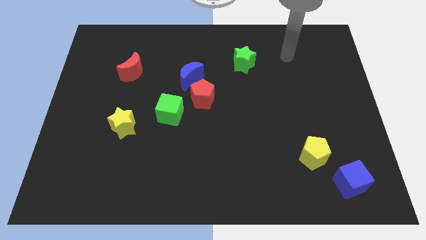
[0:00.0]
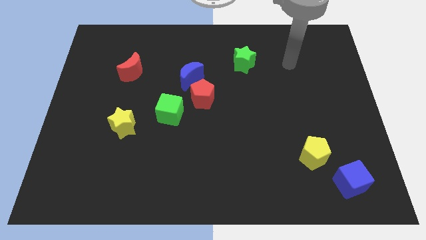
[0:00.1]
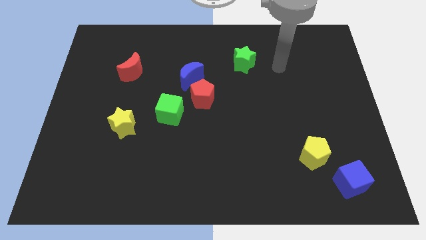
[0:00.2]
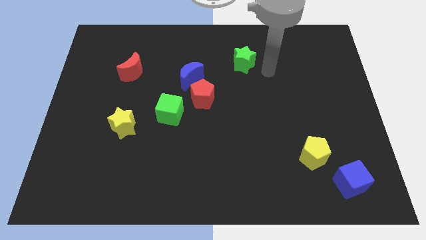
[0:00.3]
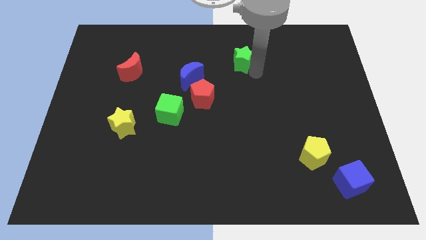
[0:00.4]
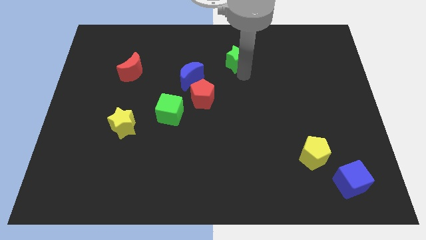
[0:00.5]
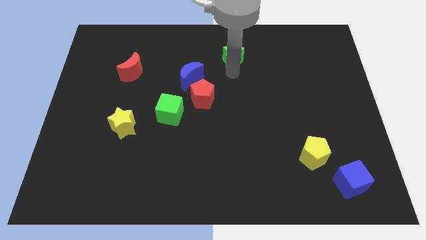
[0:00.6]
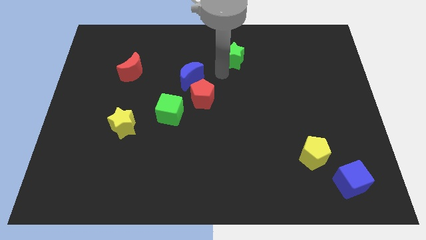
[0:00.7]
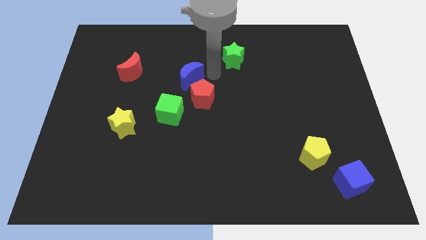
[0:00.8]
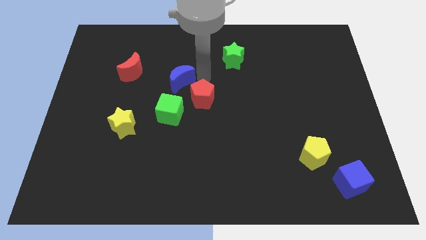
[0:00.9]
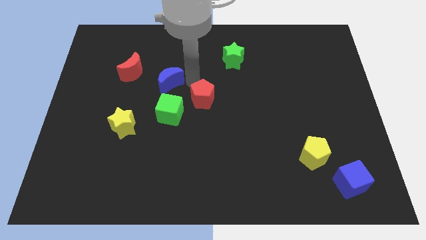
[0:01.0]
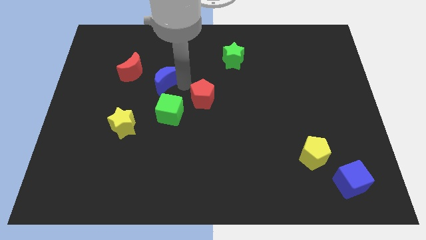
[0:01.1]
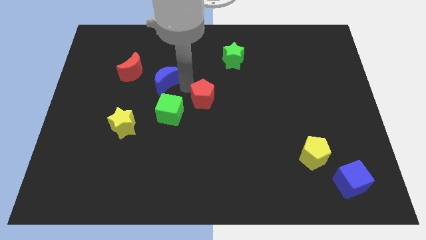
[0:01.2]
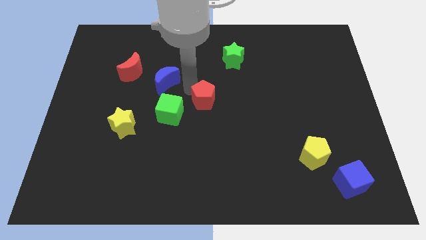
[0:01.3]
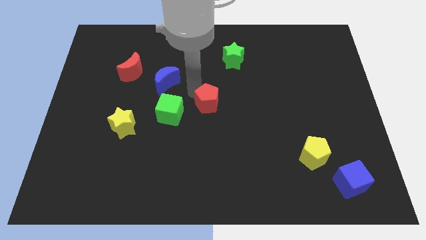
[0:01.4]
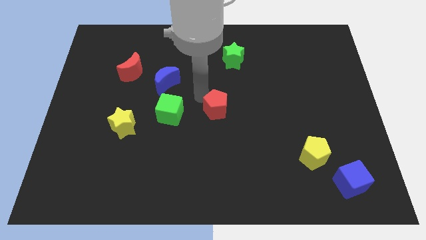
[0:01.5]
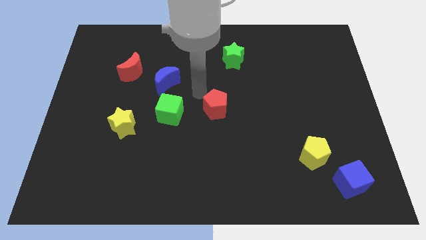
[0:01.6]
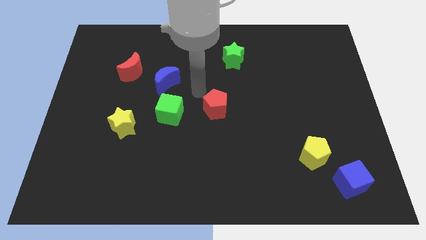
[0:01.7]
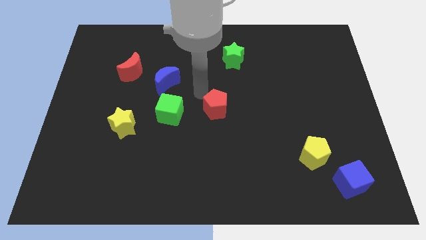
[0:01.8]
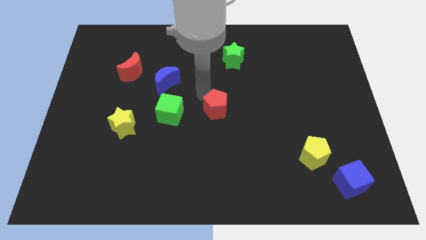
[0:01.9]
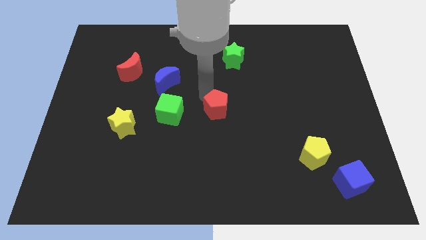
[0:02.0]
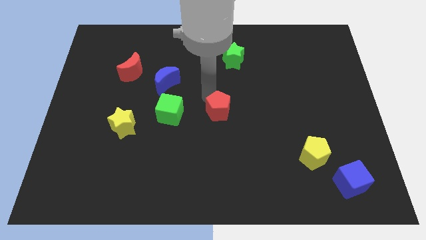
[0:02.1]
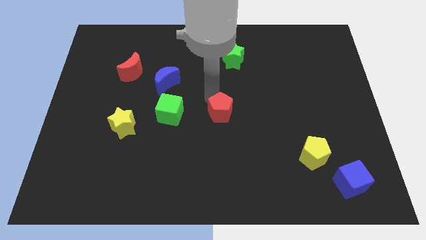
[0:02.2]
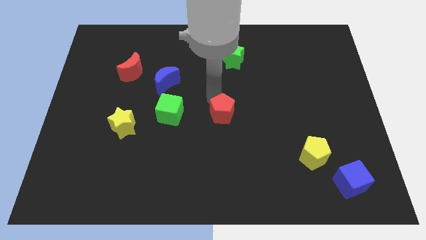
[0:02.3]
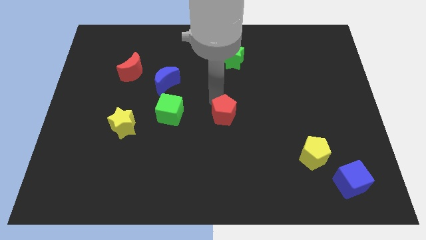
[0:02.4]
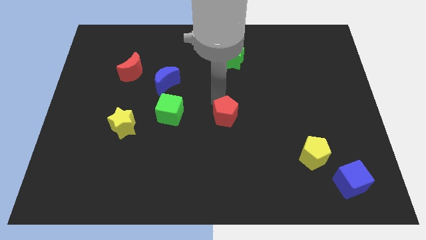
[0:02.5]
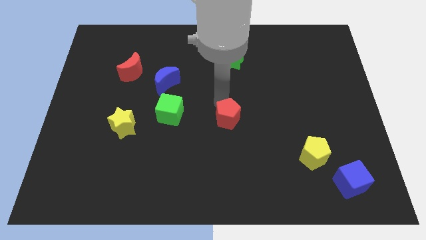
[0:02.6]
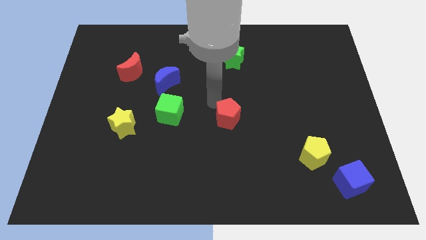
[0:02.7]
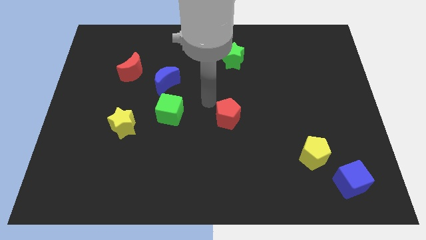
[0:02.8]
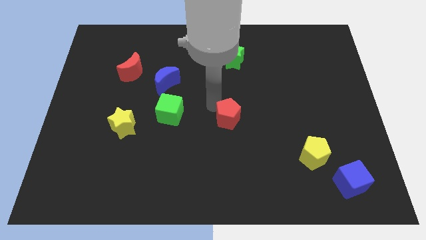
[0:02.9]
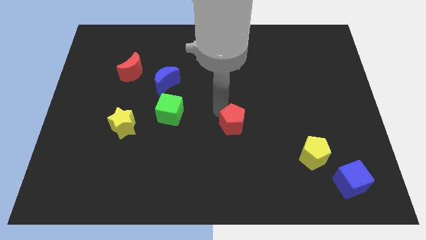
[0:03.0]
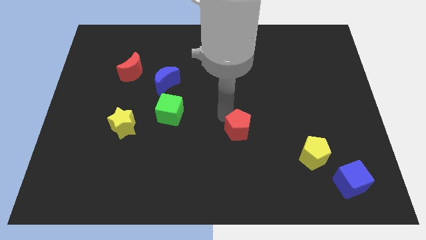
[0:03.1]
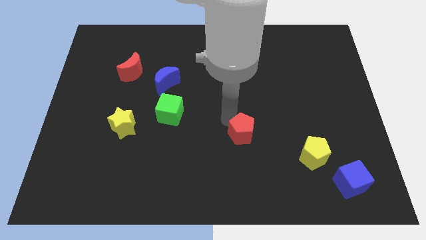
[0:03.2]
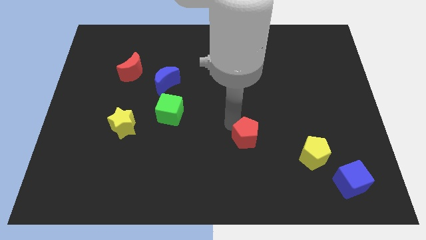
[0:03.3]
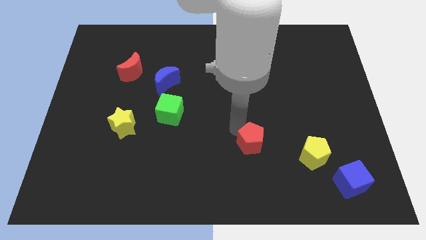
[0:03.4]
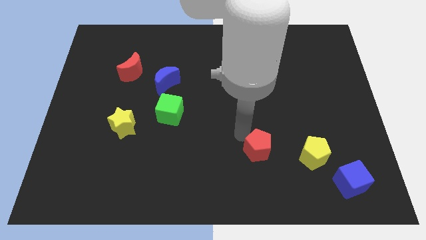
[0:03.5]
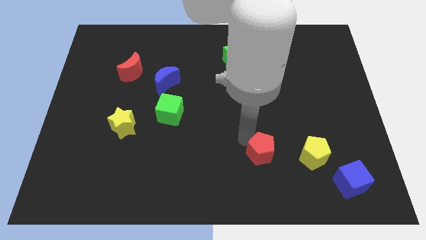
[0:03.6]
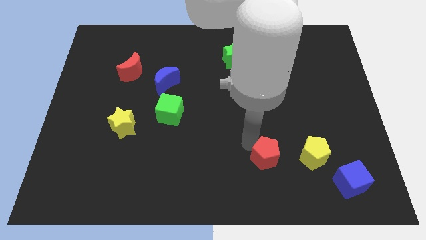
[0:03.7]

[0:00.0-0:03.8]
push the red pentagon downwards and to the right

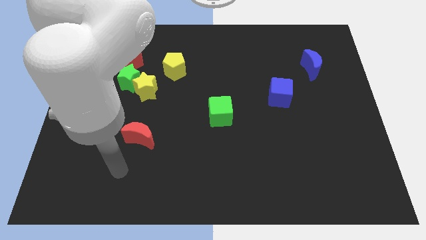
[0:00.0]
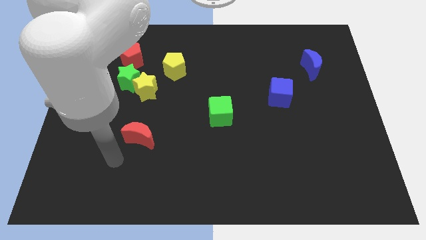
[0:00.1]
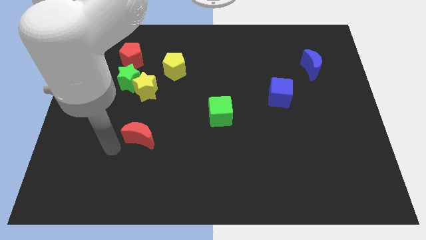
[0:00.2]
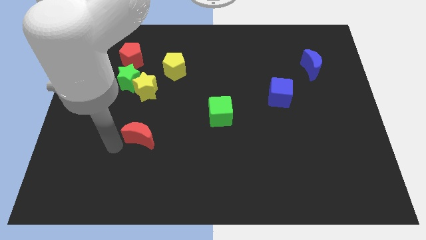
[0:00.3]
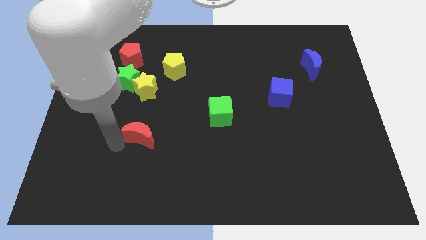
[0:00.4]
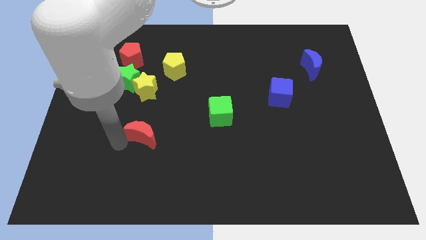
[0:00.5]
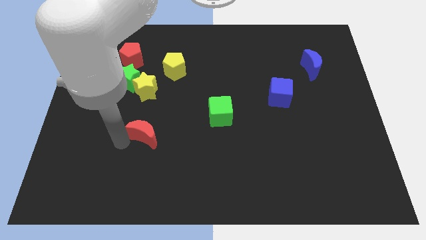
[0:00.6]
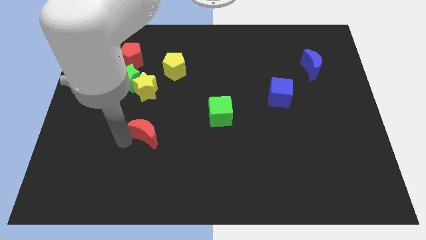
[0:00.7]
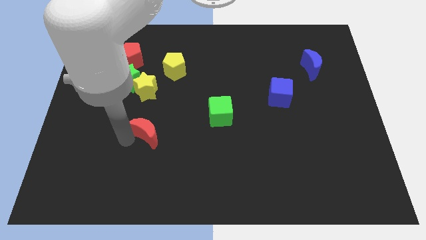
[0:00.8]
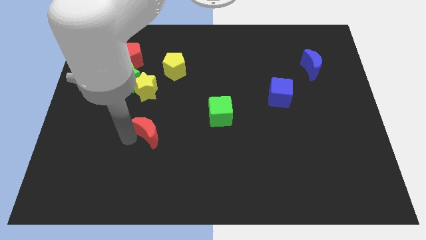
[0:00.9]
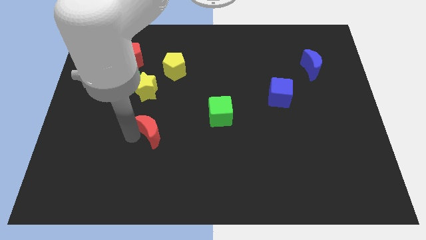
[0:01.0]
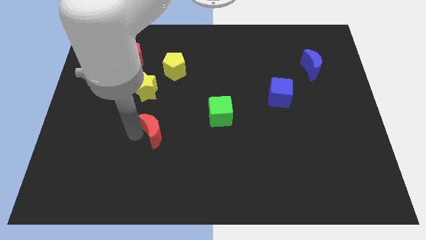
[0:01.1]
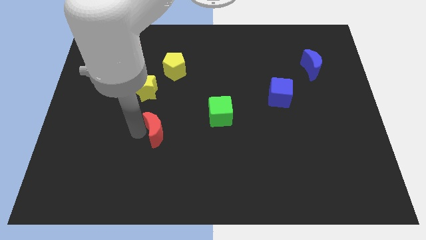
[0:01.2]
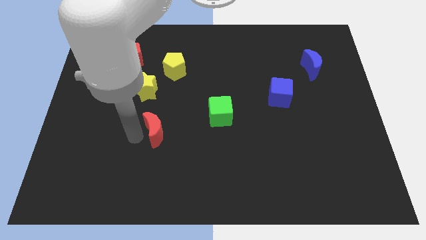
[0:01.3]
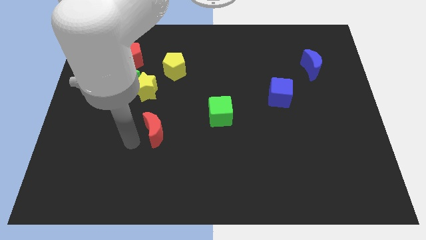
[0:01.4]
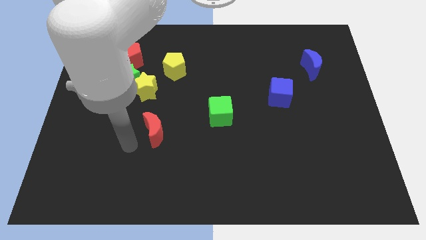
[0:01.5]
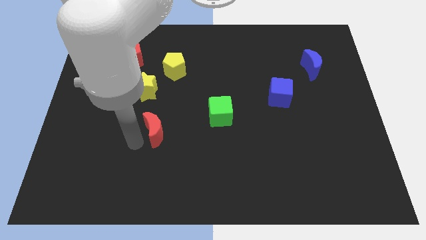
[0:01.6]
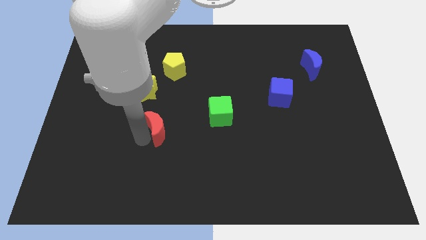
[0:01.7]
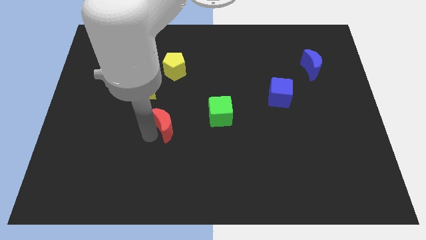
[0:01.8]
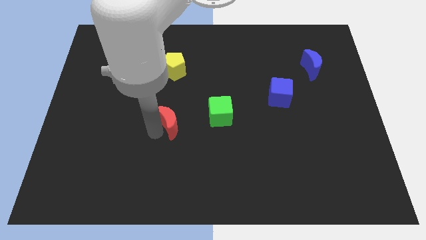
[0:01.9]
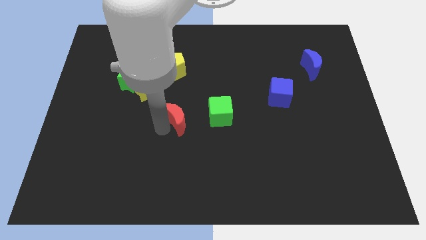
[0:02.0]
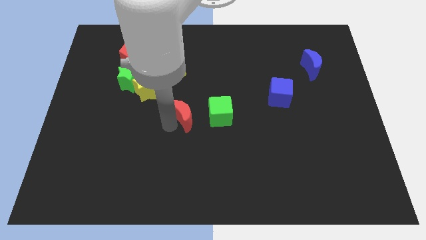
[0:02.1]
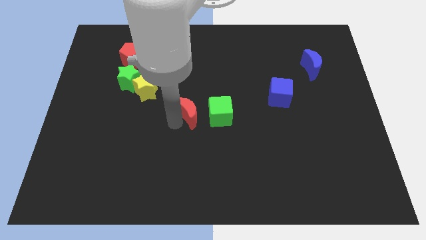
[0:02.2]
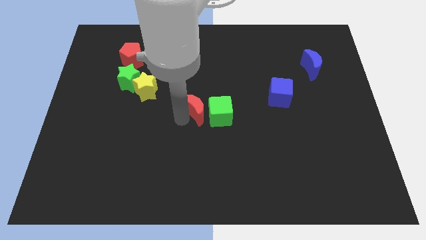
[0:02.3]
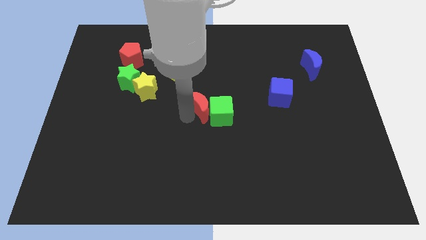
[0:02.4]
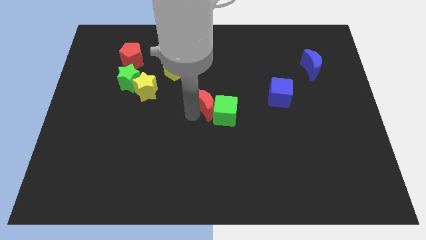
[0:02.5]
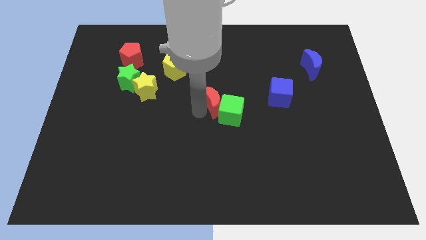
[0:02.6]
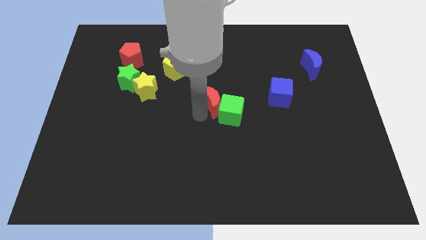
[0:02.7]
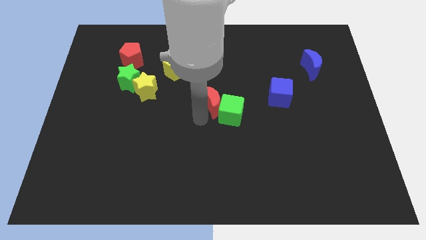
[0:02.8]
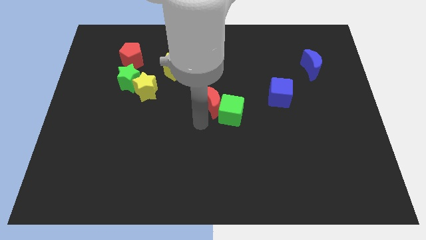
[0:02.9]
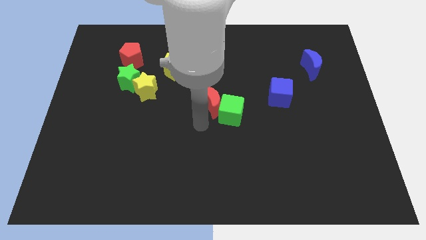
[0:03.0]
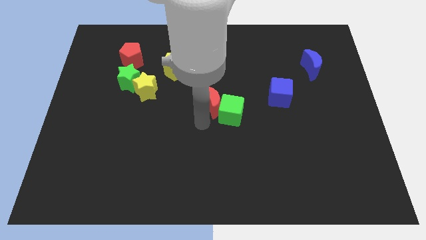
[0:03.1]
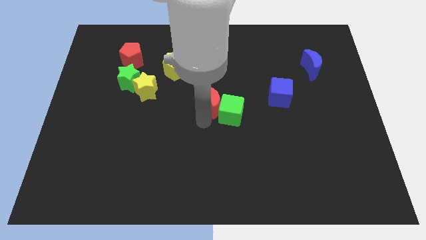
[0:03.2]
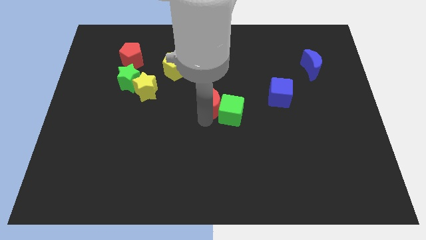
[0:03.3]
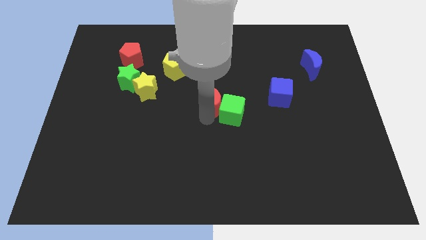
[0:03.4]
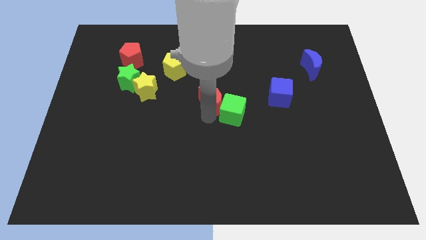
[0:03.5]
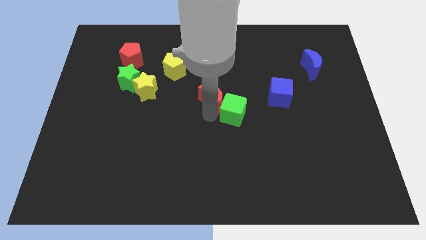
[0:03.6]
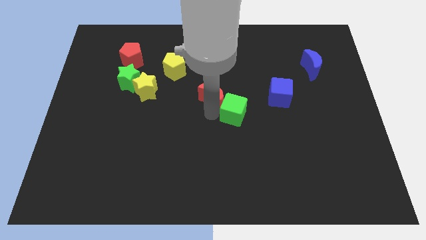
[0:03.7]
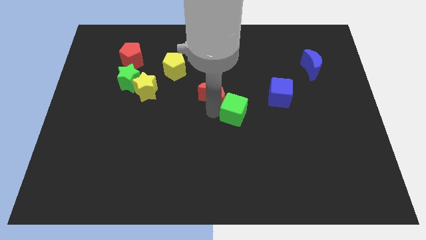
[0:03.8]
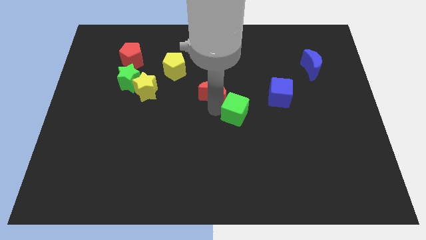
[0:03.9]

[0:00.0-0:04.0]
move the red moon diagonally upwards and to the right

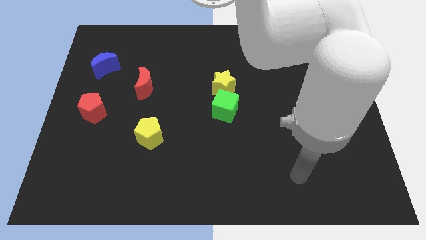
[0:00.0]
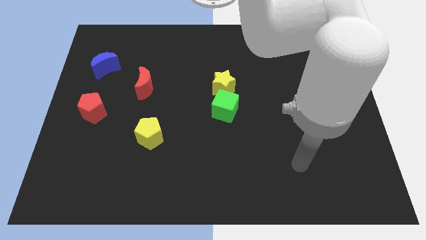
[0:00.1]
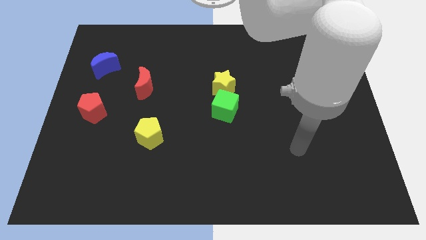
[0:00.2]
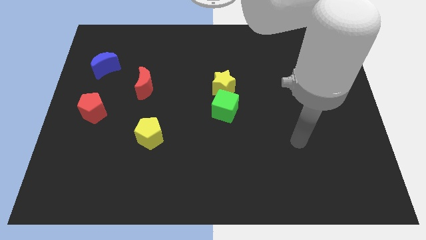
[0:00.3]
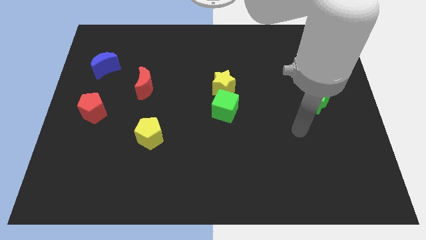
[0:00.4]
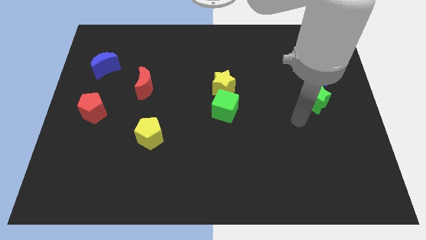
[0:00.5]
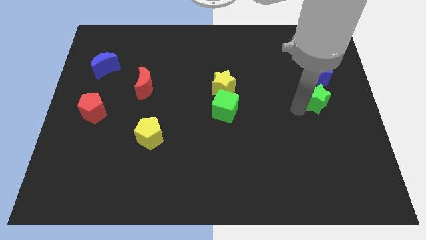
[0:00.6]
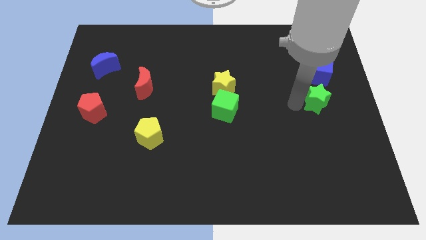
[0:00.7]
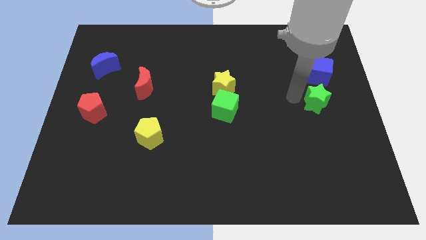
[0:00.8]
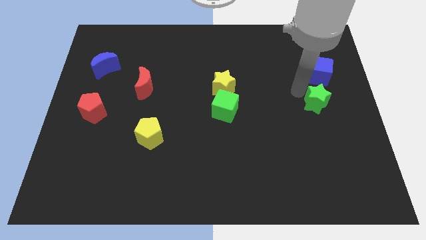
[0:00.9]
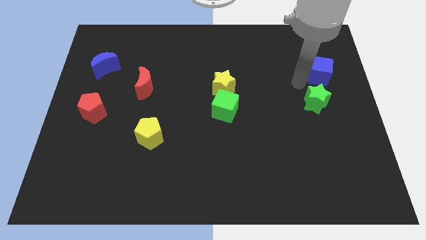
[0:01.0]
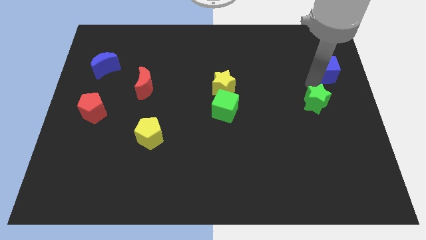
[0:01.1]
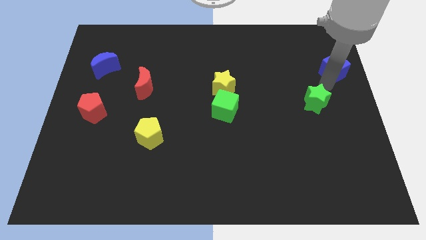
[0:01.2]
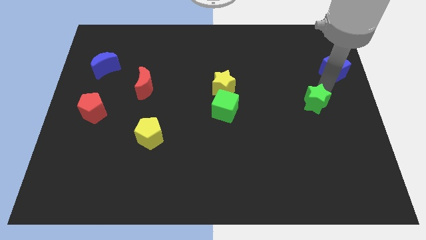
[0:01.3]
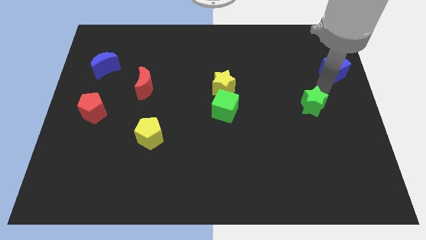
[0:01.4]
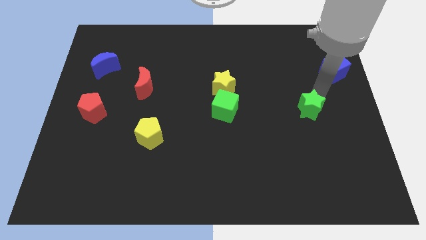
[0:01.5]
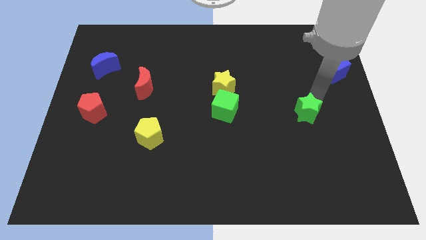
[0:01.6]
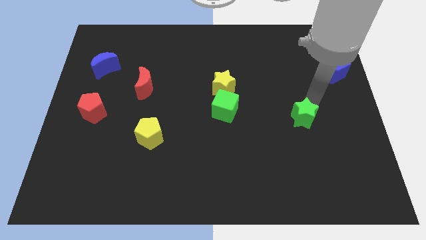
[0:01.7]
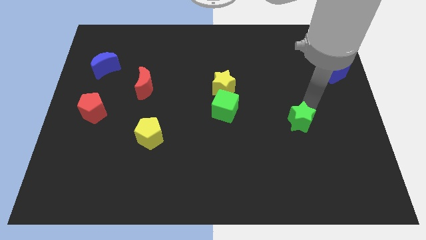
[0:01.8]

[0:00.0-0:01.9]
move the green star a bit down and left diagonally
